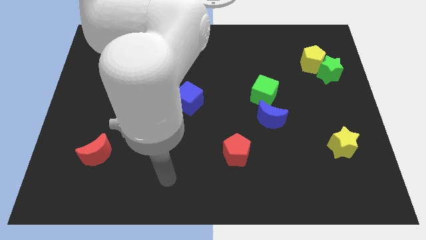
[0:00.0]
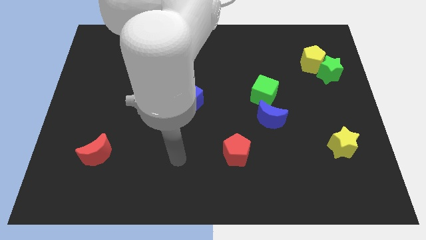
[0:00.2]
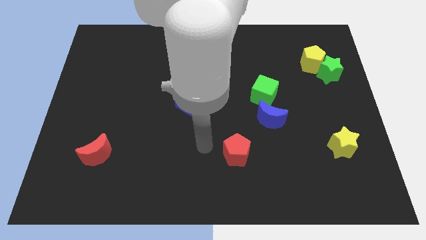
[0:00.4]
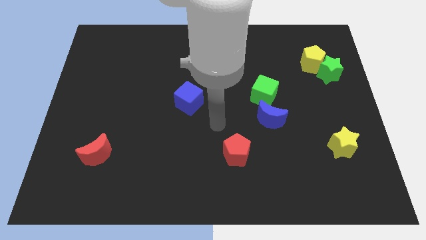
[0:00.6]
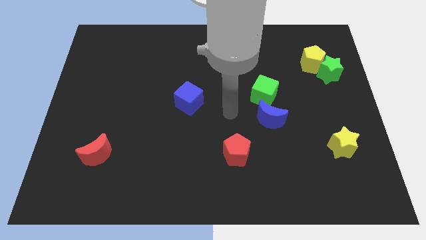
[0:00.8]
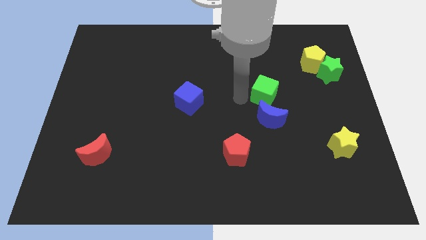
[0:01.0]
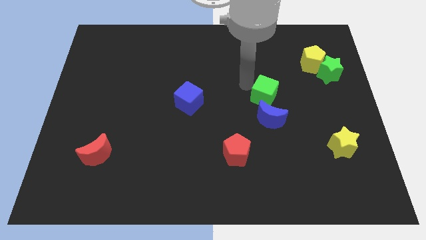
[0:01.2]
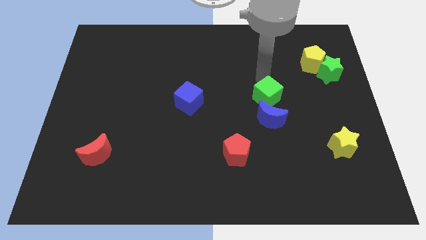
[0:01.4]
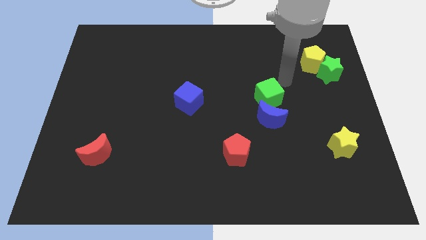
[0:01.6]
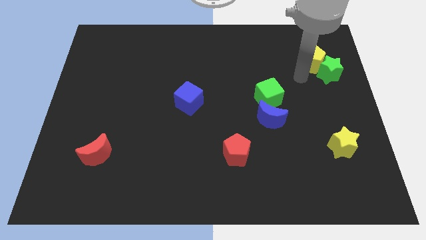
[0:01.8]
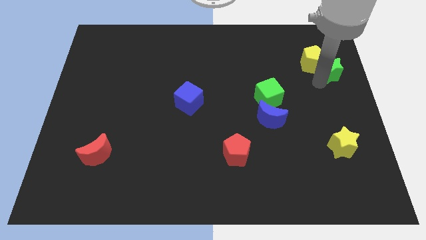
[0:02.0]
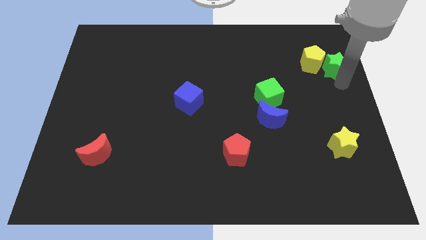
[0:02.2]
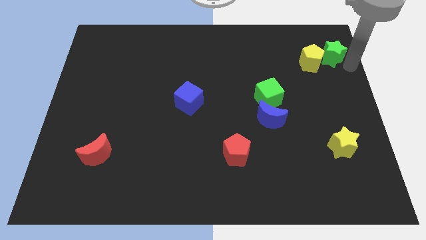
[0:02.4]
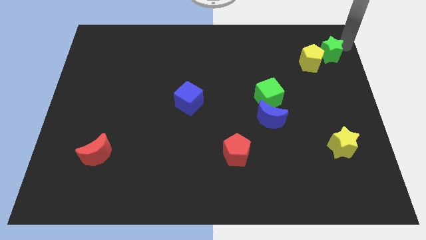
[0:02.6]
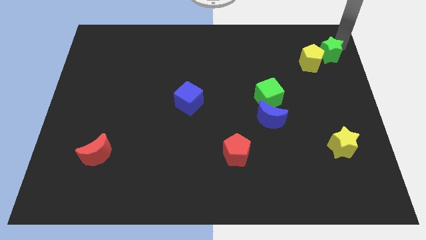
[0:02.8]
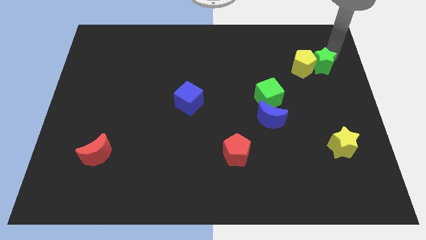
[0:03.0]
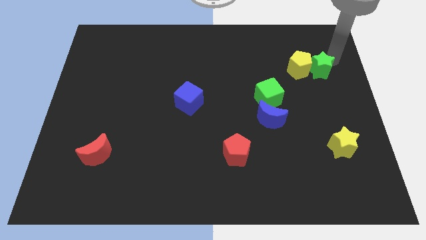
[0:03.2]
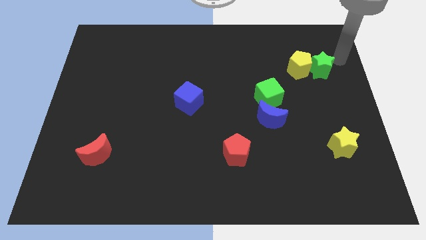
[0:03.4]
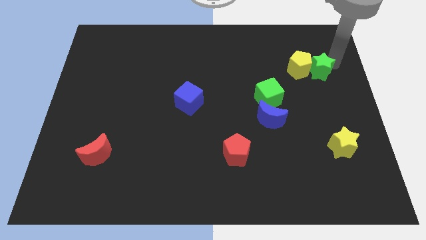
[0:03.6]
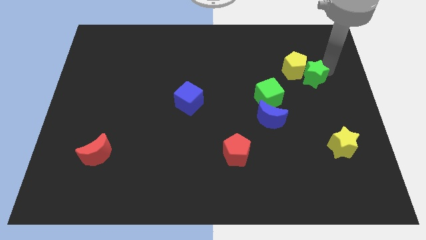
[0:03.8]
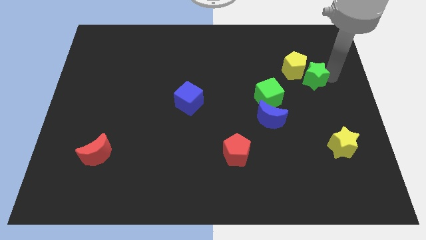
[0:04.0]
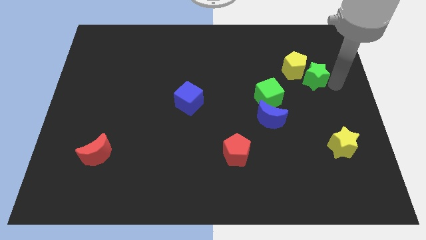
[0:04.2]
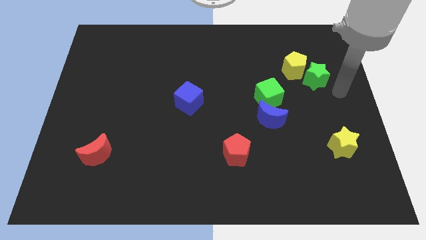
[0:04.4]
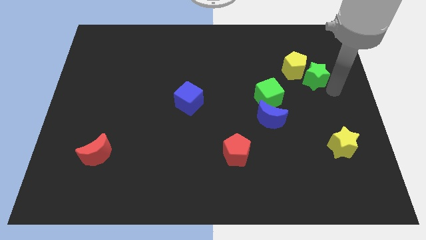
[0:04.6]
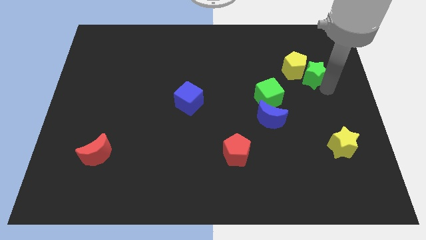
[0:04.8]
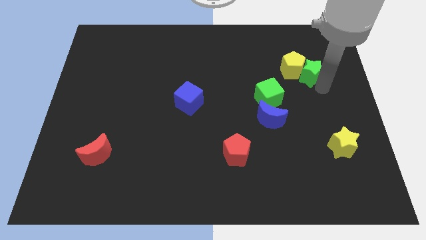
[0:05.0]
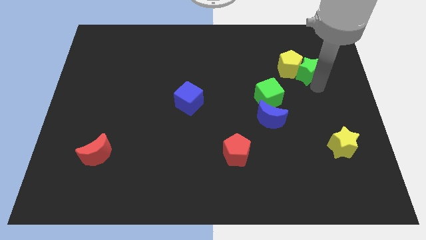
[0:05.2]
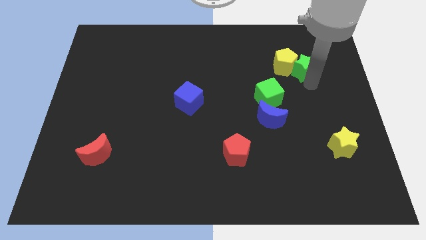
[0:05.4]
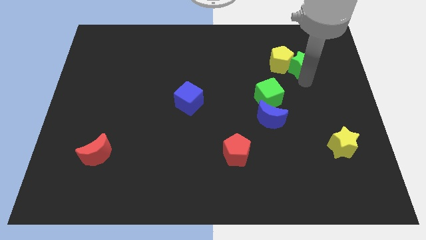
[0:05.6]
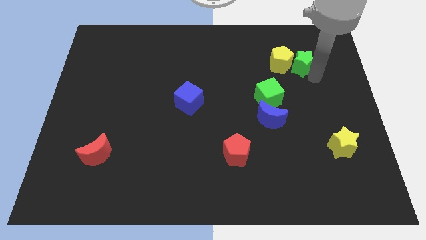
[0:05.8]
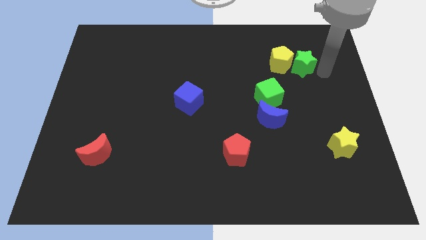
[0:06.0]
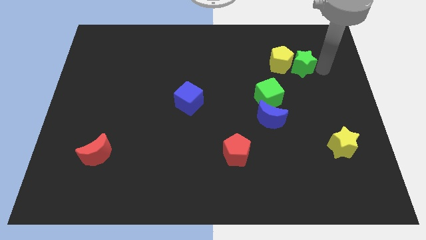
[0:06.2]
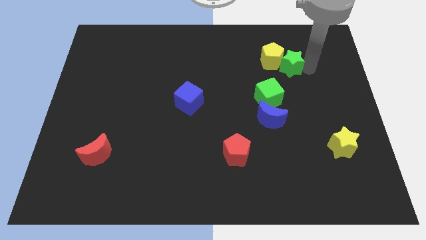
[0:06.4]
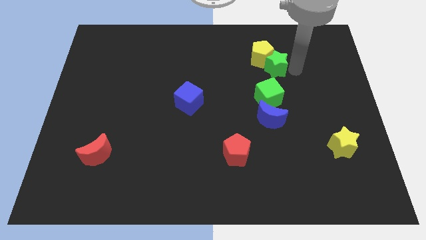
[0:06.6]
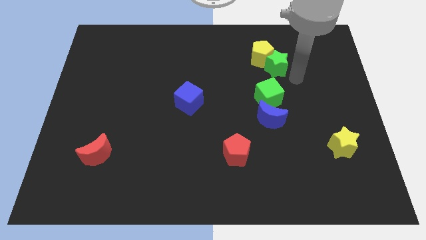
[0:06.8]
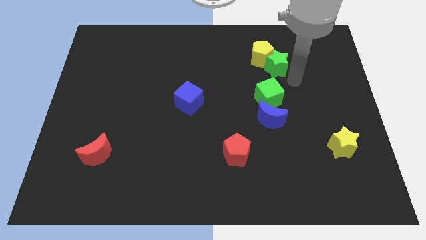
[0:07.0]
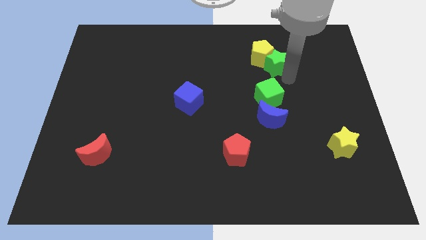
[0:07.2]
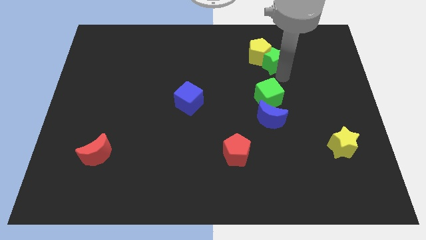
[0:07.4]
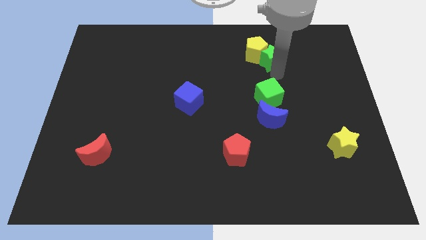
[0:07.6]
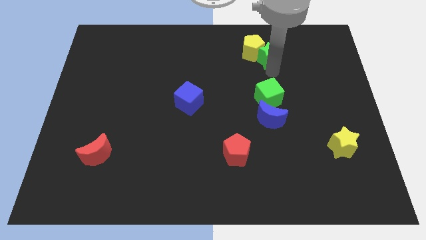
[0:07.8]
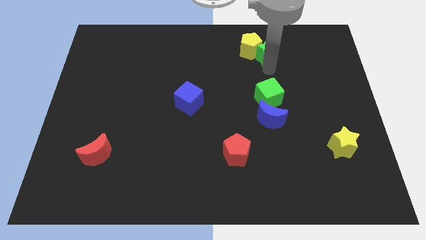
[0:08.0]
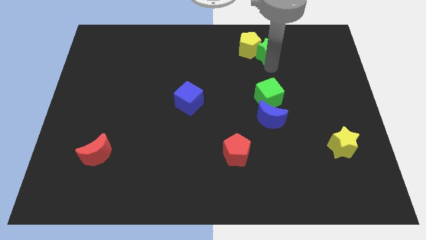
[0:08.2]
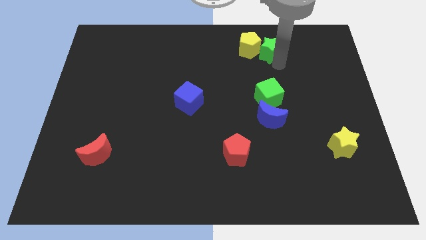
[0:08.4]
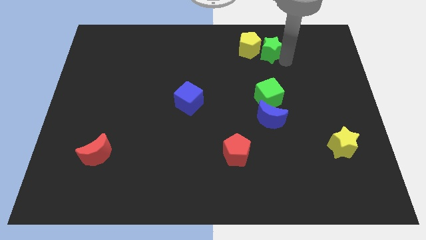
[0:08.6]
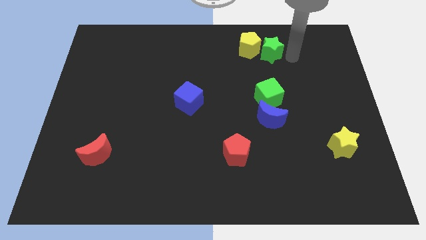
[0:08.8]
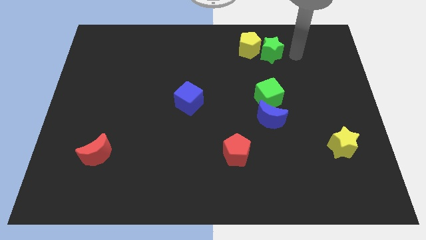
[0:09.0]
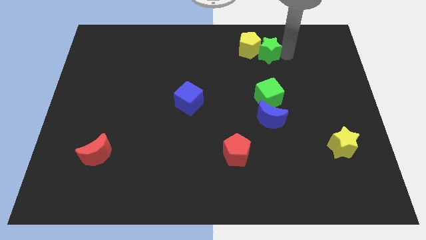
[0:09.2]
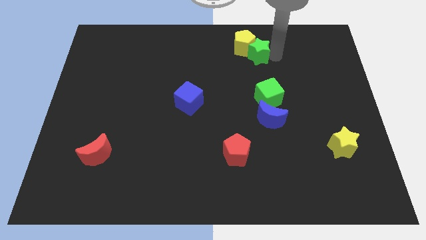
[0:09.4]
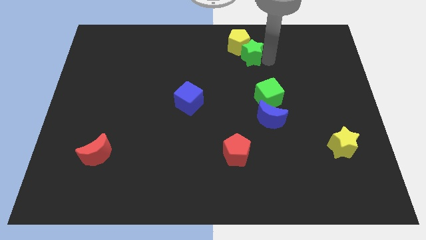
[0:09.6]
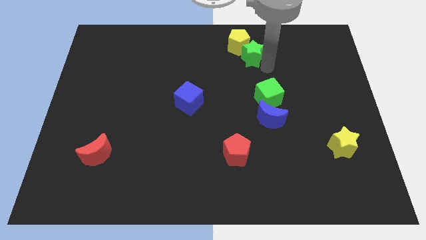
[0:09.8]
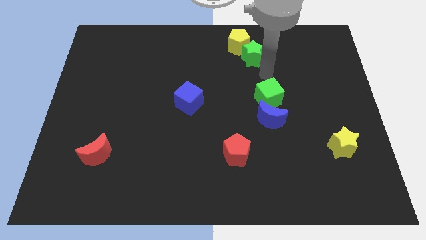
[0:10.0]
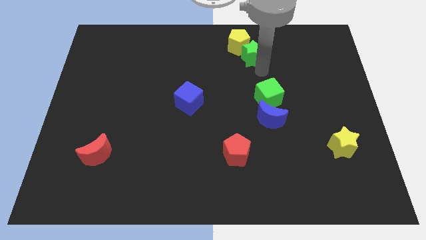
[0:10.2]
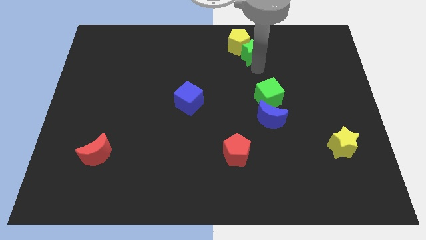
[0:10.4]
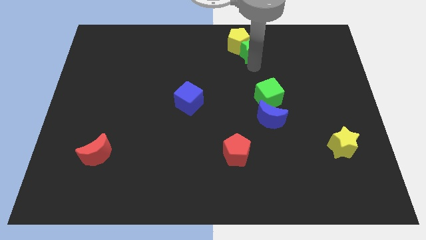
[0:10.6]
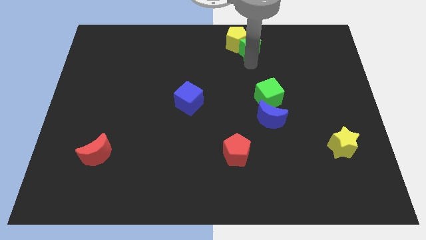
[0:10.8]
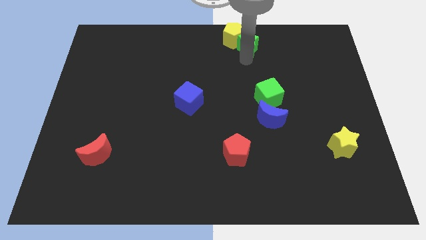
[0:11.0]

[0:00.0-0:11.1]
put the green star to the top side
